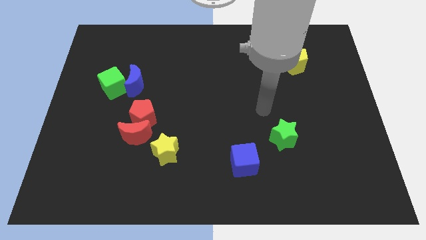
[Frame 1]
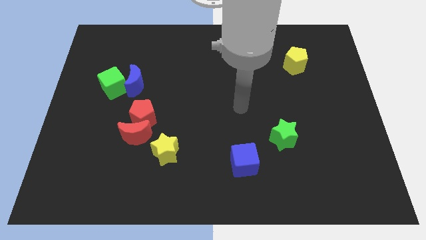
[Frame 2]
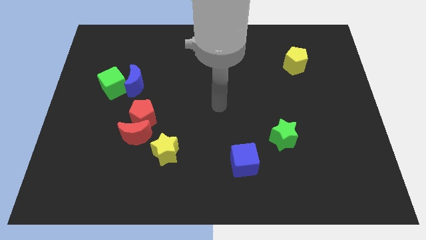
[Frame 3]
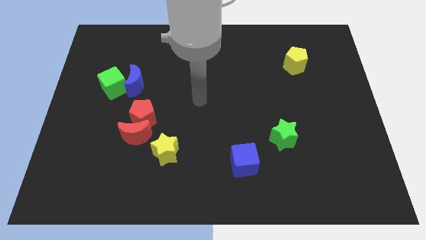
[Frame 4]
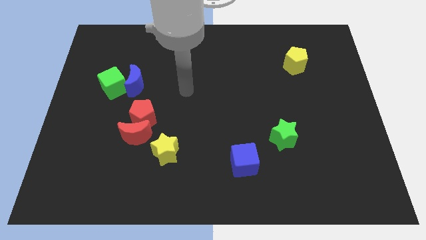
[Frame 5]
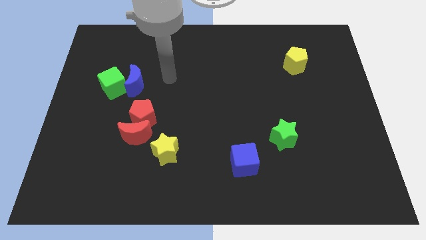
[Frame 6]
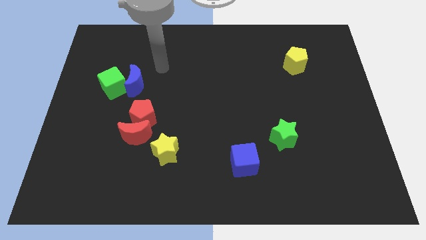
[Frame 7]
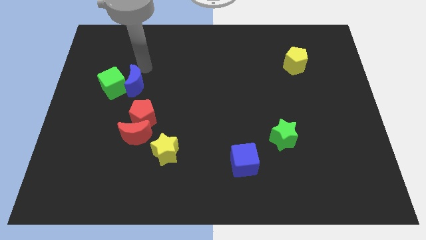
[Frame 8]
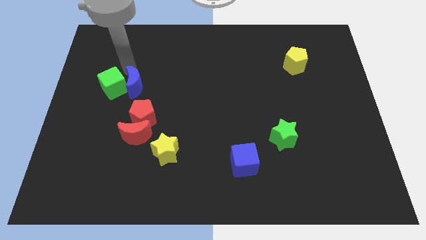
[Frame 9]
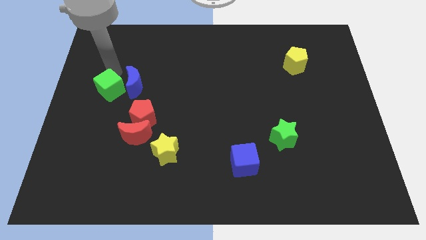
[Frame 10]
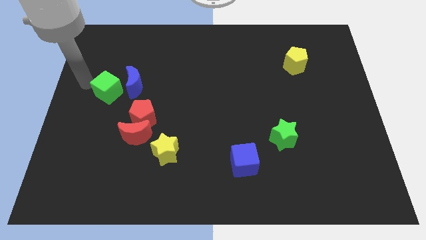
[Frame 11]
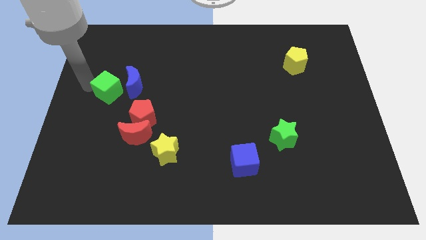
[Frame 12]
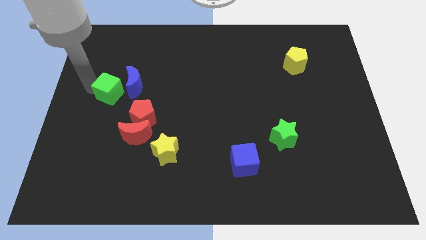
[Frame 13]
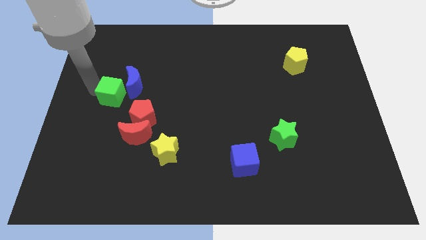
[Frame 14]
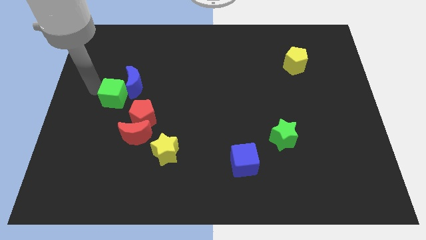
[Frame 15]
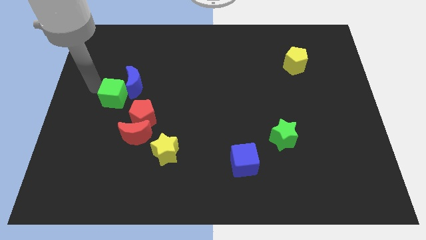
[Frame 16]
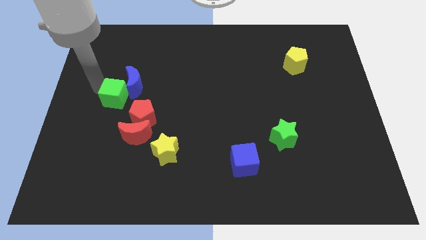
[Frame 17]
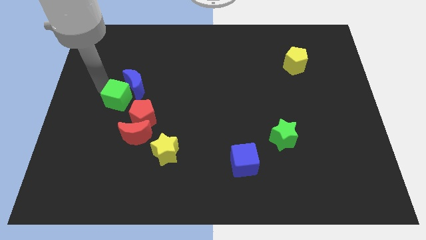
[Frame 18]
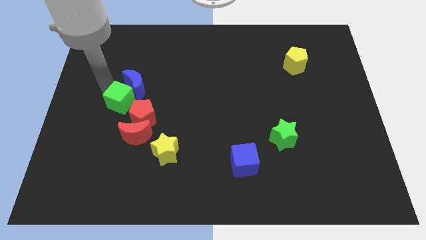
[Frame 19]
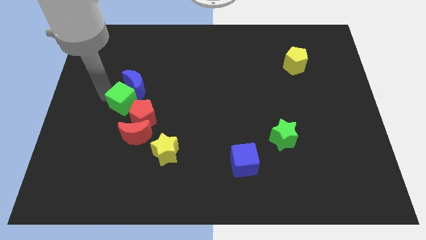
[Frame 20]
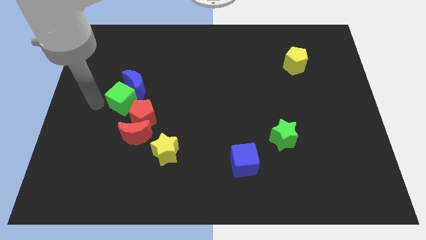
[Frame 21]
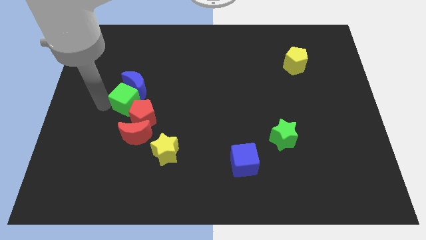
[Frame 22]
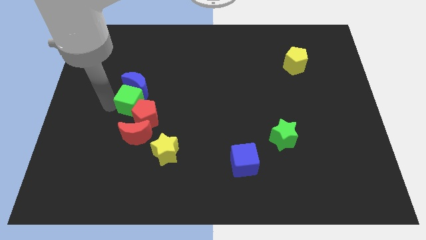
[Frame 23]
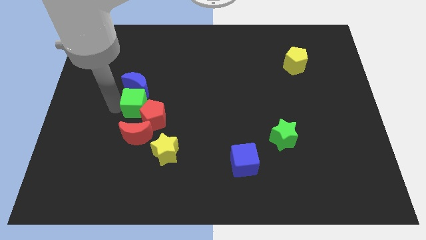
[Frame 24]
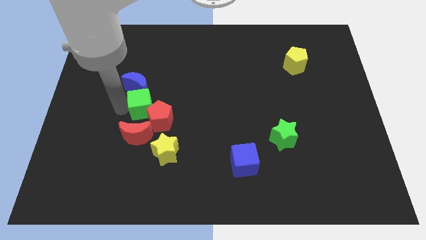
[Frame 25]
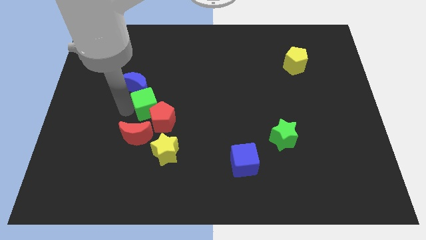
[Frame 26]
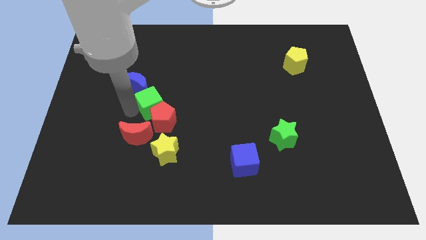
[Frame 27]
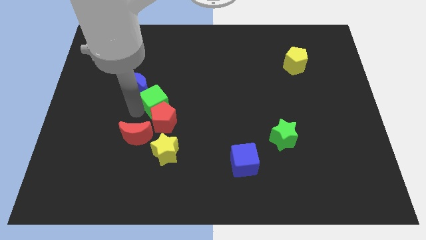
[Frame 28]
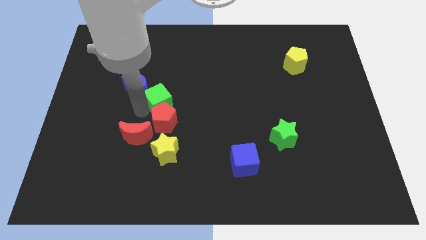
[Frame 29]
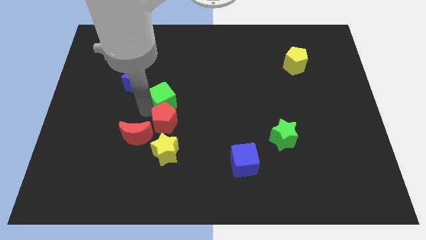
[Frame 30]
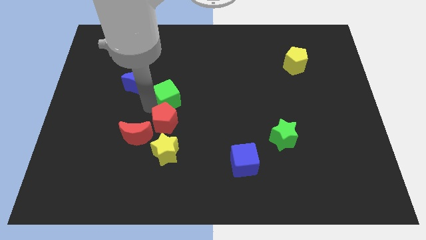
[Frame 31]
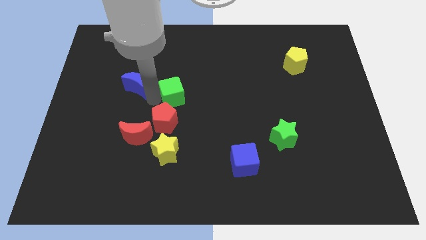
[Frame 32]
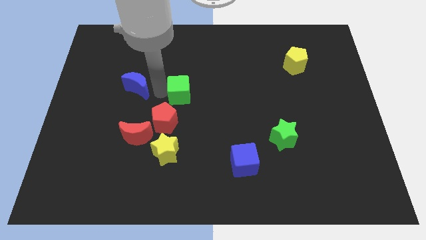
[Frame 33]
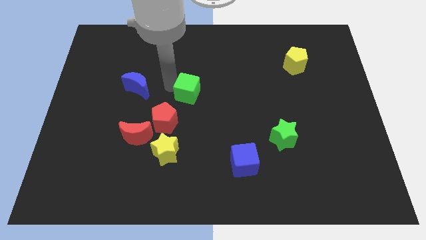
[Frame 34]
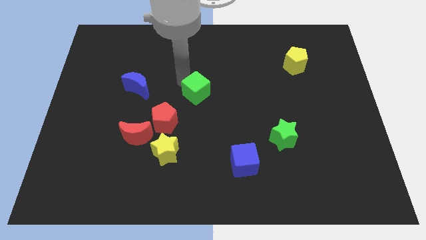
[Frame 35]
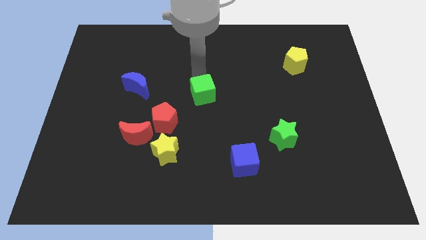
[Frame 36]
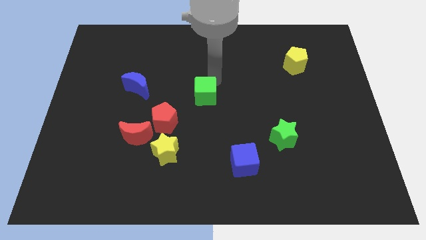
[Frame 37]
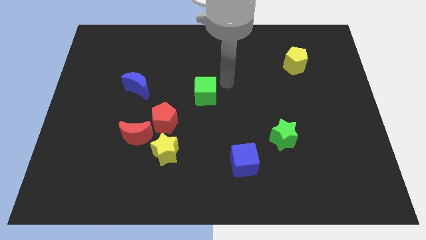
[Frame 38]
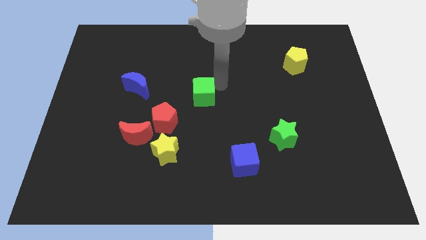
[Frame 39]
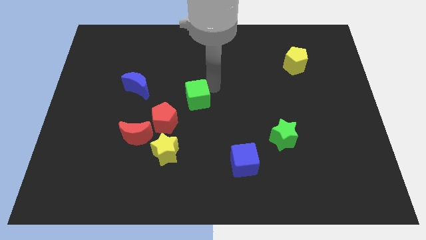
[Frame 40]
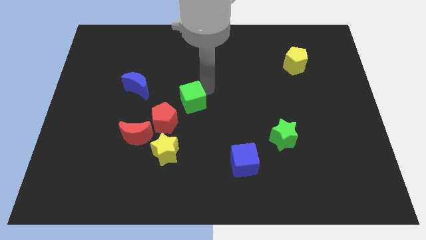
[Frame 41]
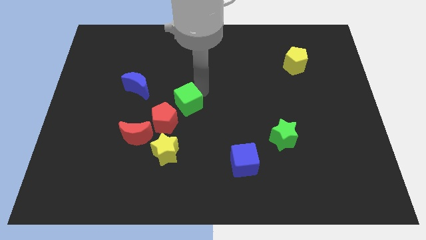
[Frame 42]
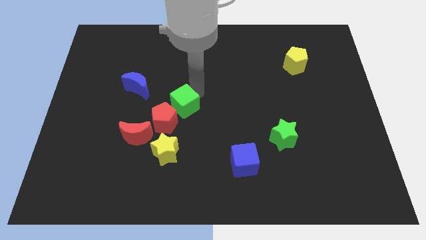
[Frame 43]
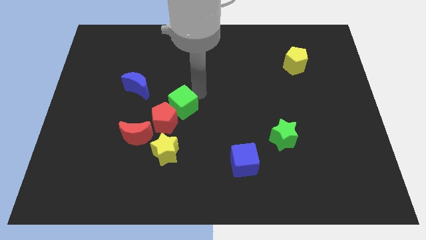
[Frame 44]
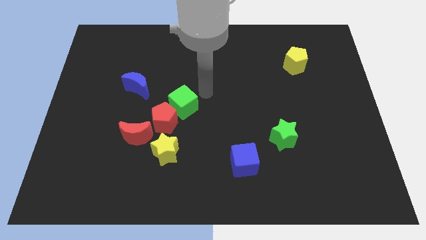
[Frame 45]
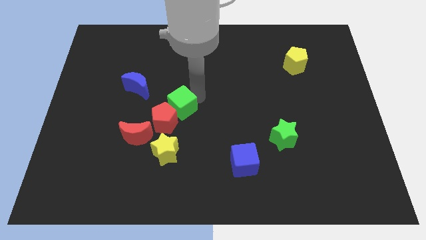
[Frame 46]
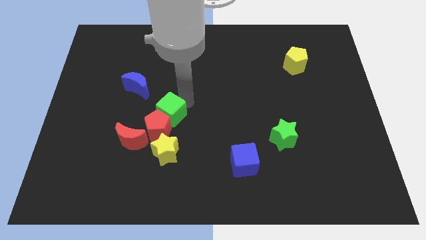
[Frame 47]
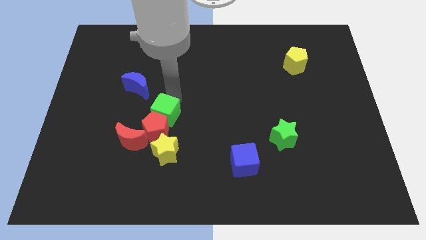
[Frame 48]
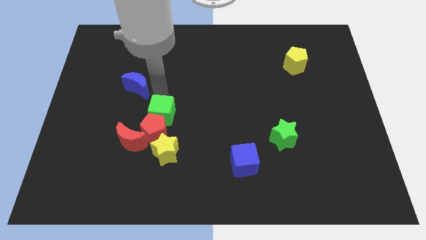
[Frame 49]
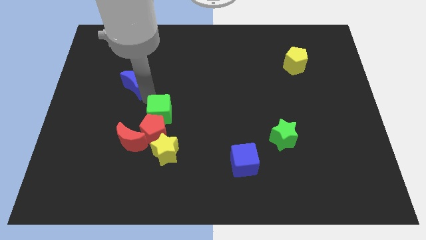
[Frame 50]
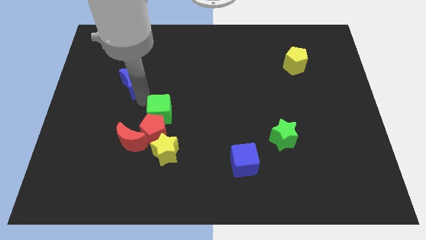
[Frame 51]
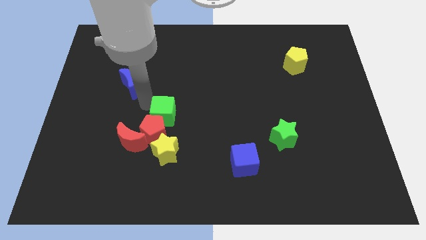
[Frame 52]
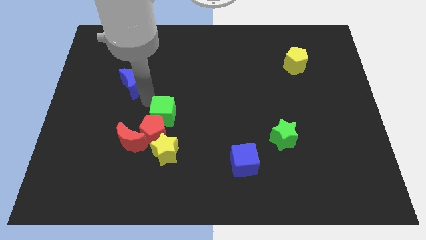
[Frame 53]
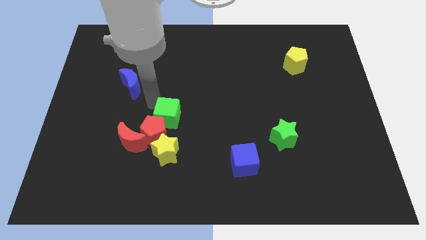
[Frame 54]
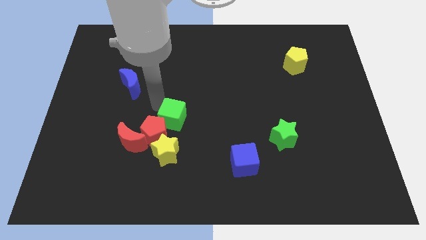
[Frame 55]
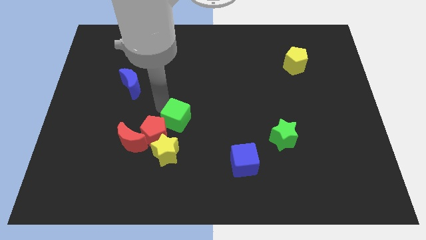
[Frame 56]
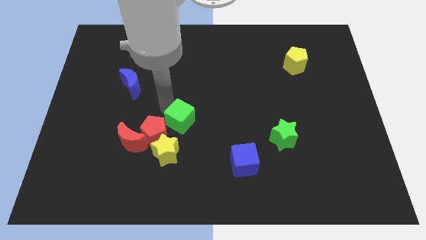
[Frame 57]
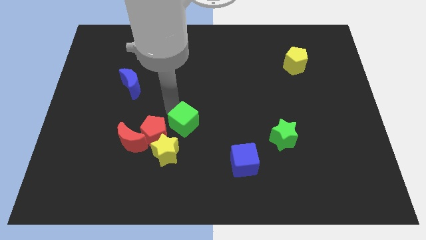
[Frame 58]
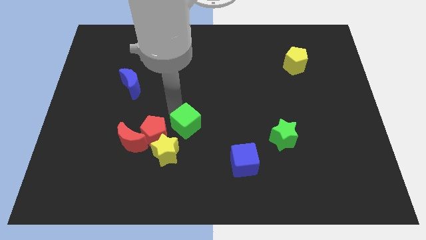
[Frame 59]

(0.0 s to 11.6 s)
slide the green cube down and right diagonally

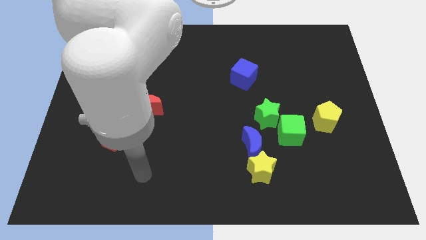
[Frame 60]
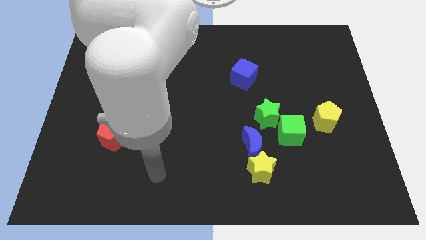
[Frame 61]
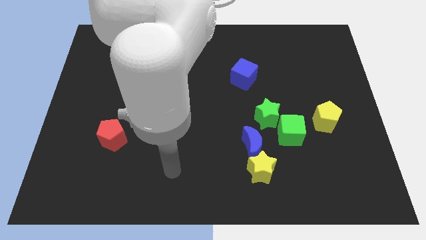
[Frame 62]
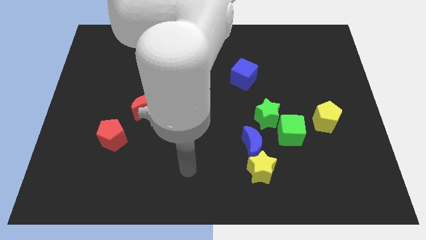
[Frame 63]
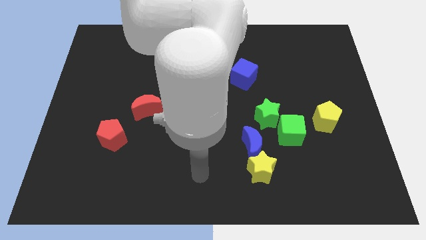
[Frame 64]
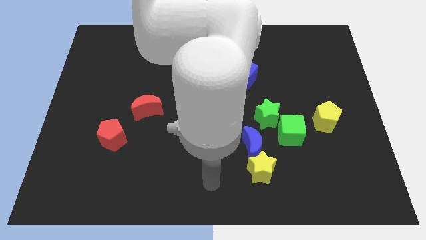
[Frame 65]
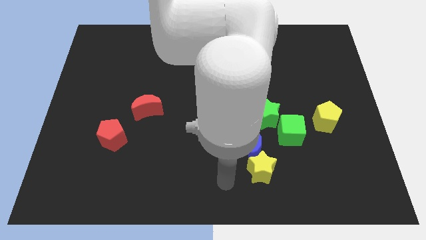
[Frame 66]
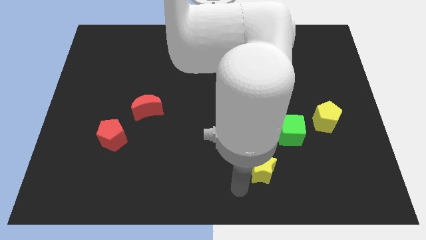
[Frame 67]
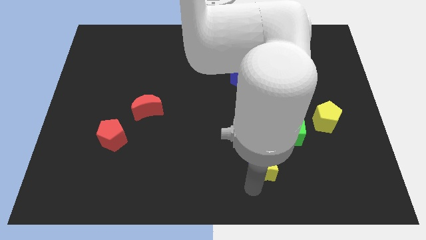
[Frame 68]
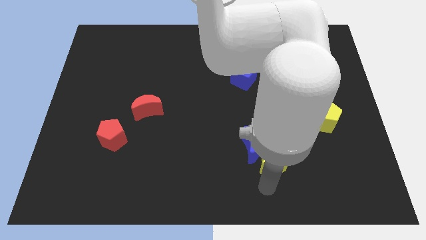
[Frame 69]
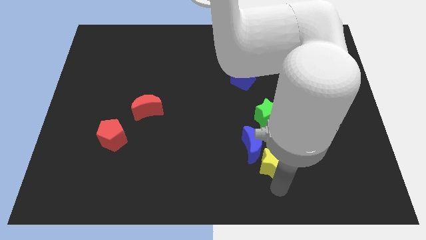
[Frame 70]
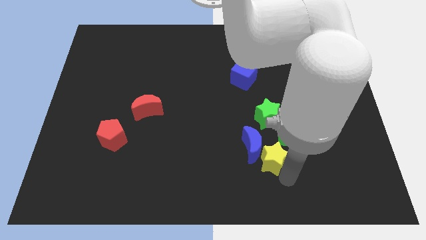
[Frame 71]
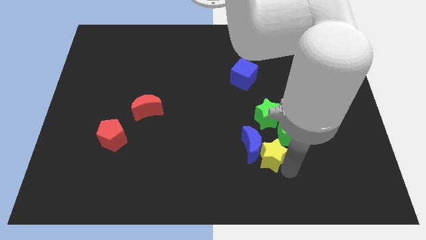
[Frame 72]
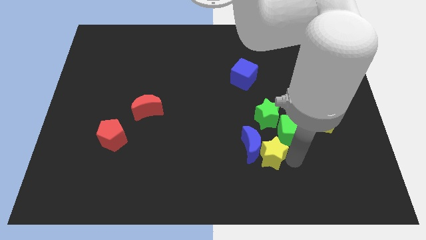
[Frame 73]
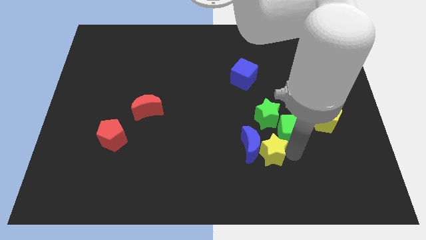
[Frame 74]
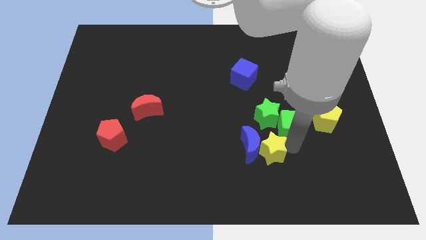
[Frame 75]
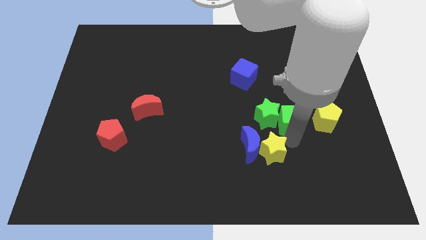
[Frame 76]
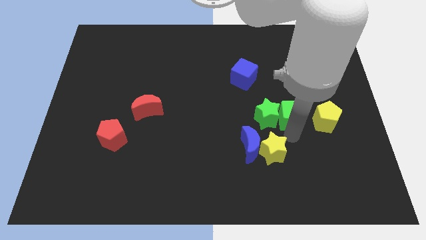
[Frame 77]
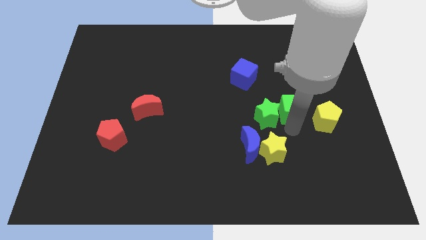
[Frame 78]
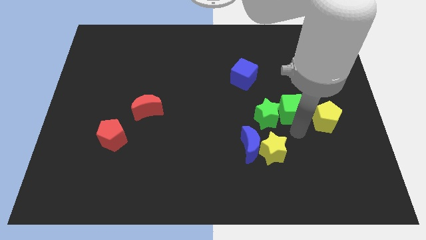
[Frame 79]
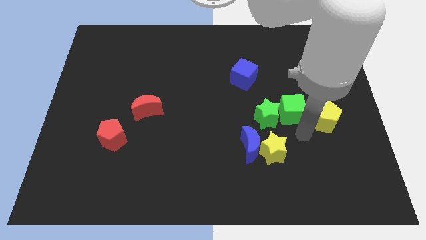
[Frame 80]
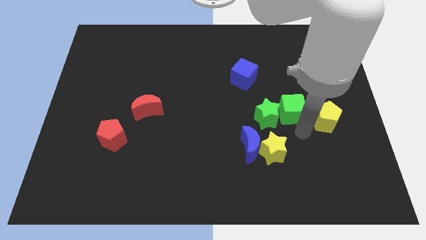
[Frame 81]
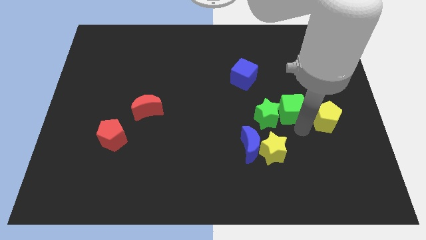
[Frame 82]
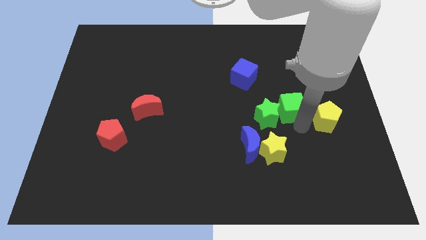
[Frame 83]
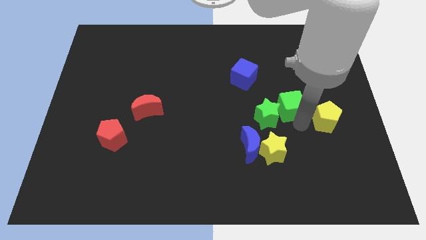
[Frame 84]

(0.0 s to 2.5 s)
push the green cube up slightly
